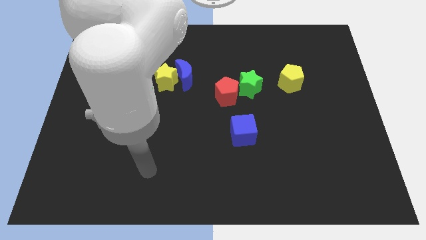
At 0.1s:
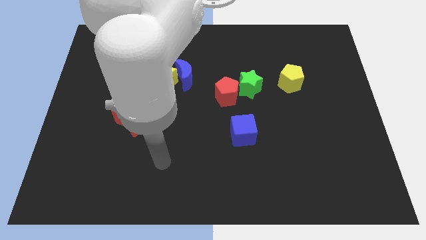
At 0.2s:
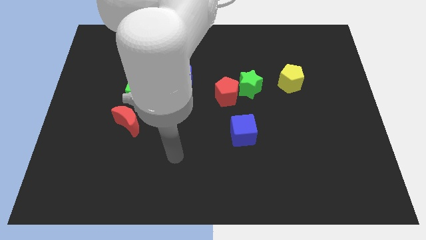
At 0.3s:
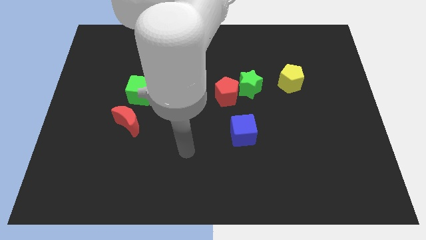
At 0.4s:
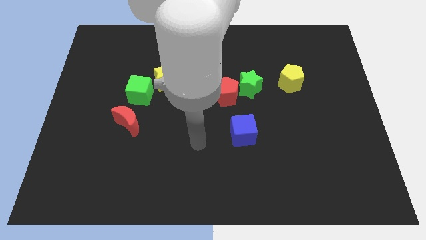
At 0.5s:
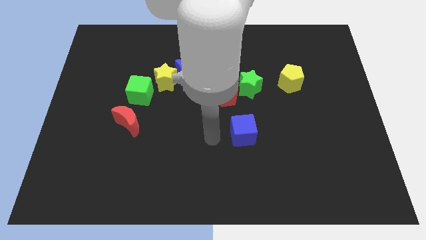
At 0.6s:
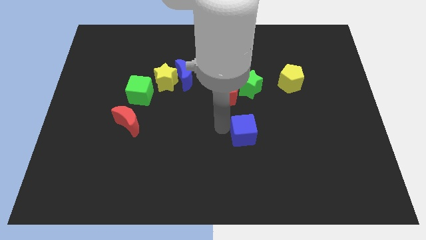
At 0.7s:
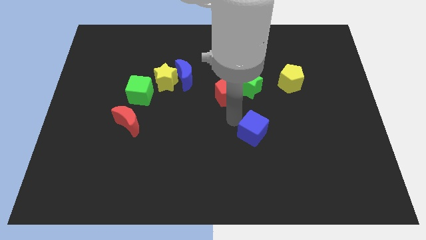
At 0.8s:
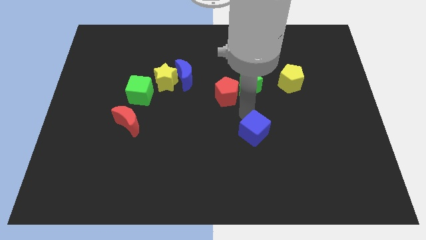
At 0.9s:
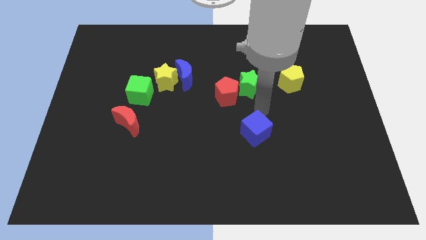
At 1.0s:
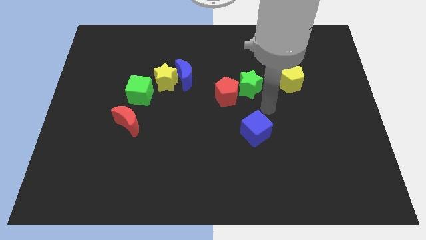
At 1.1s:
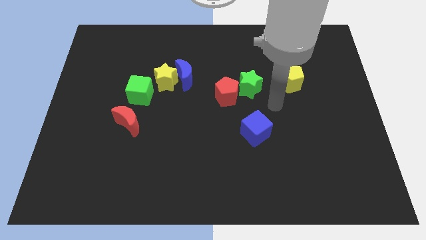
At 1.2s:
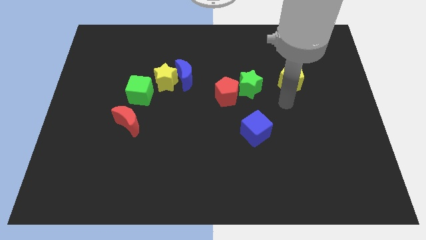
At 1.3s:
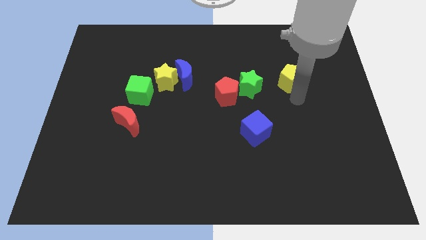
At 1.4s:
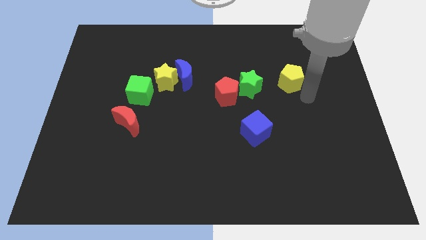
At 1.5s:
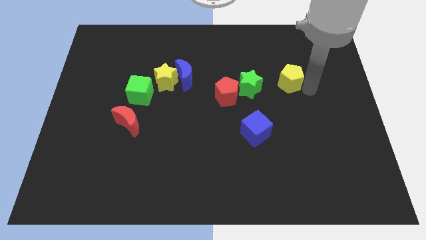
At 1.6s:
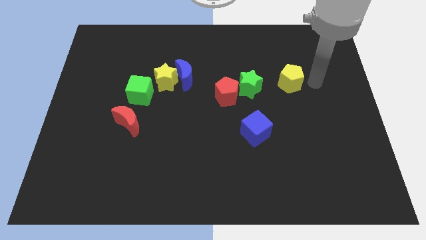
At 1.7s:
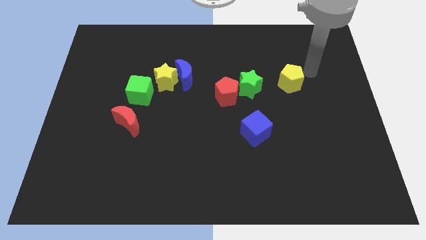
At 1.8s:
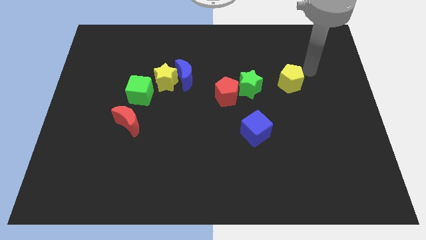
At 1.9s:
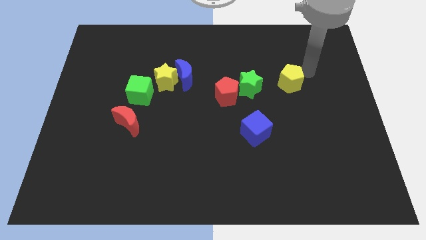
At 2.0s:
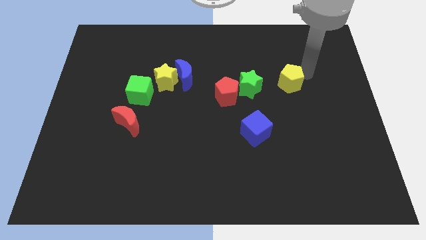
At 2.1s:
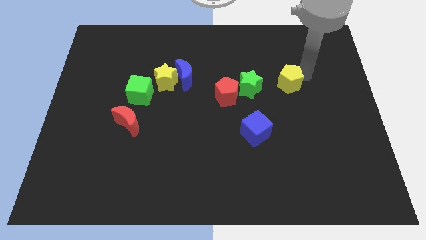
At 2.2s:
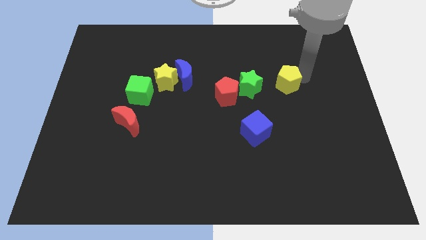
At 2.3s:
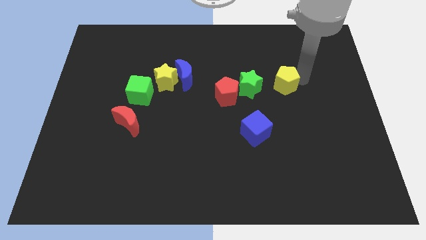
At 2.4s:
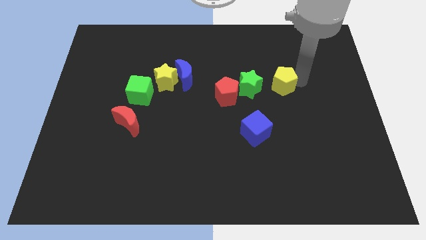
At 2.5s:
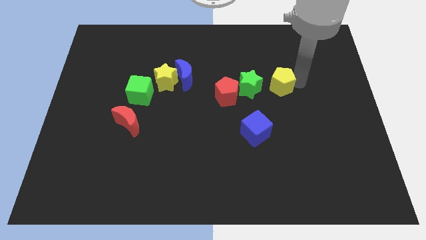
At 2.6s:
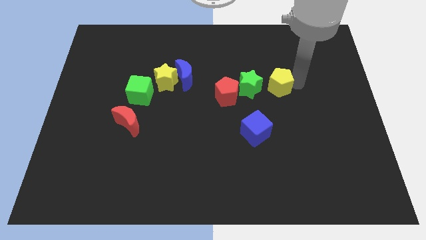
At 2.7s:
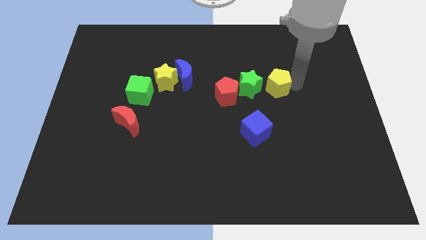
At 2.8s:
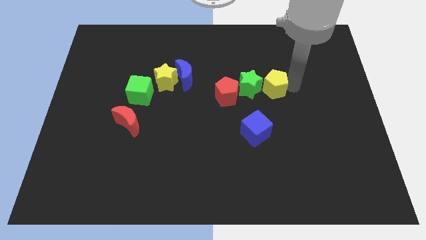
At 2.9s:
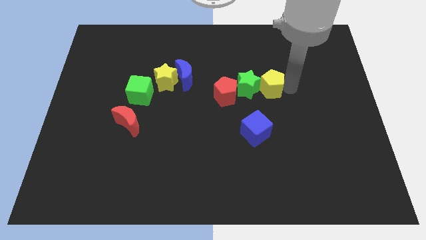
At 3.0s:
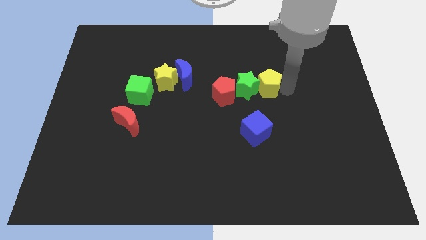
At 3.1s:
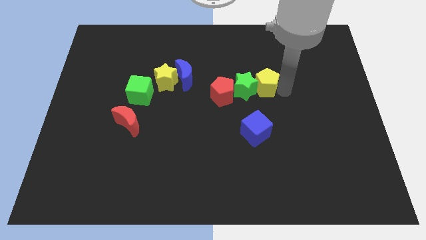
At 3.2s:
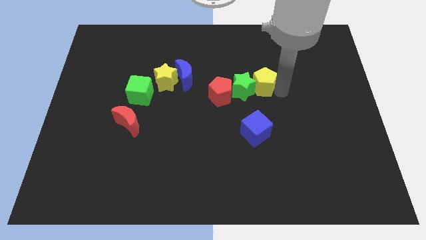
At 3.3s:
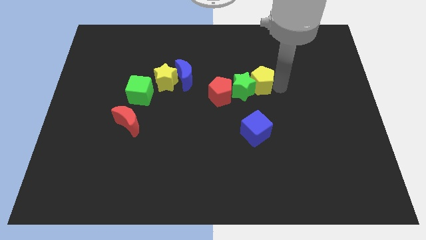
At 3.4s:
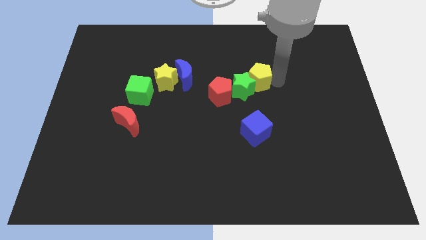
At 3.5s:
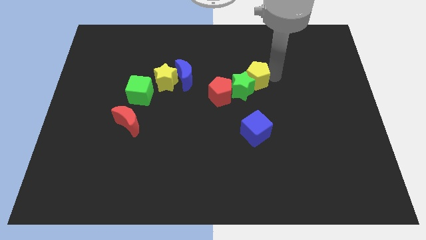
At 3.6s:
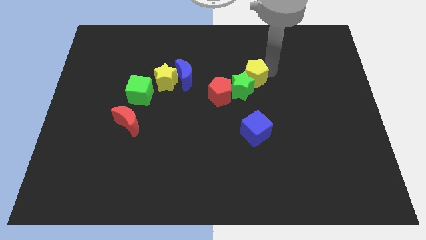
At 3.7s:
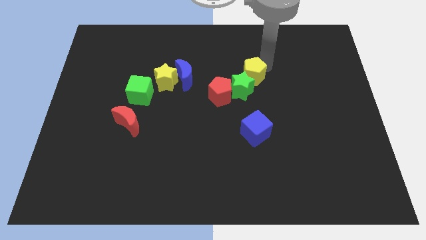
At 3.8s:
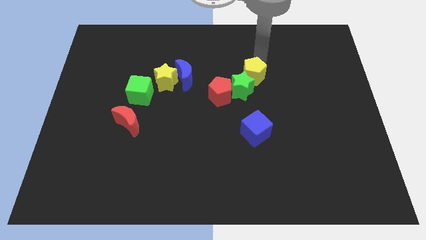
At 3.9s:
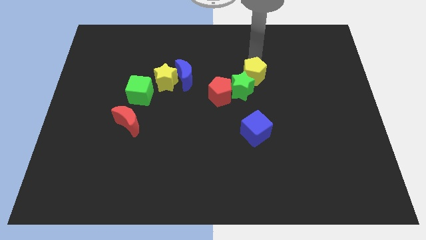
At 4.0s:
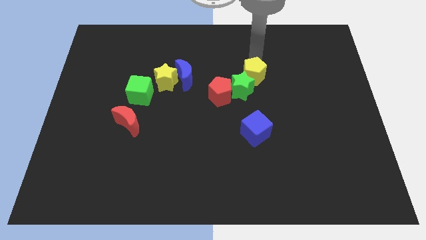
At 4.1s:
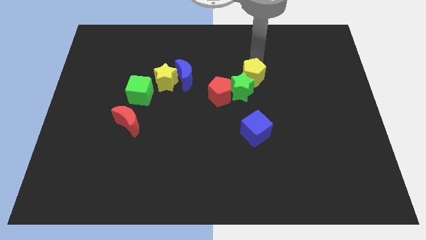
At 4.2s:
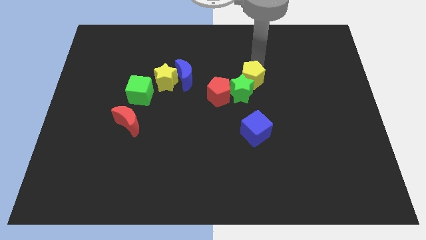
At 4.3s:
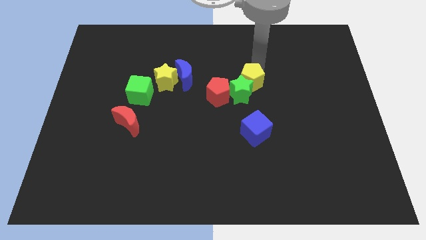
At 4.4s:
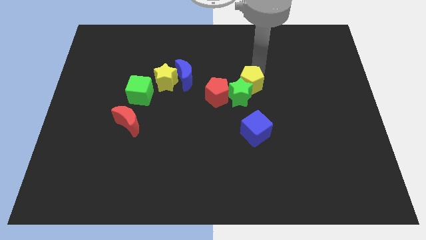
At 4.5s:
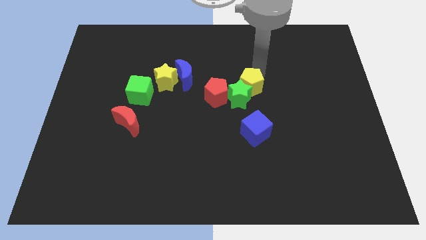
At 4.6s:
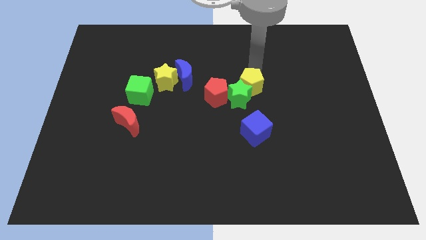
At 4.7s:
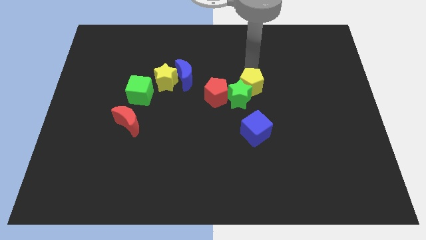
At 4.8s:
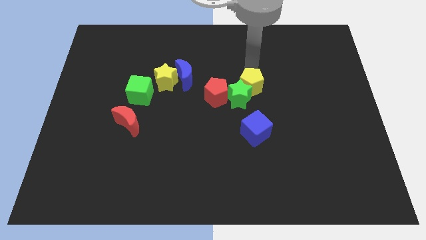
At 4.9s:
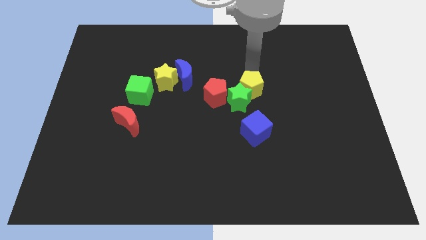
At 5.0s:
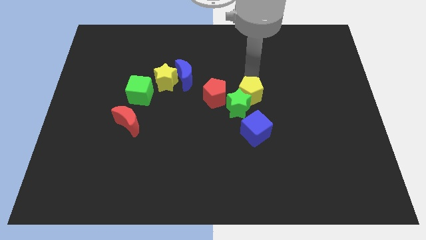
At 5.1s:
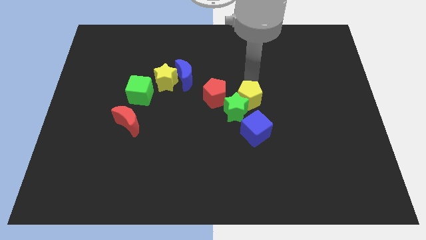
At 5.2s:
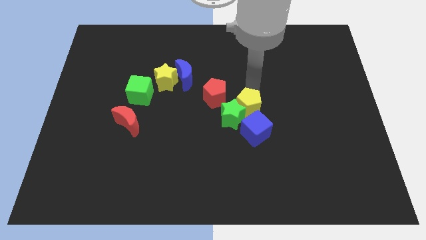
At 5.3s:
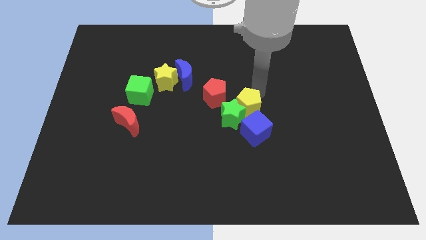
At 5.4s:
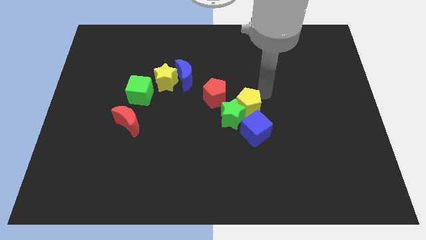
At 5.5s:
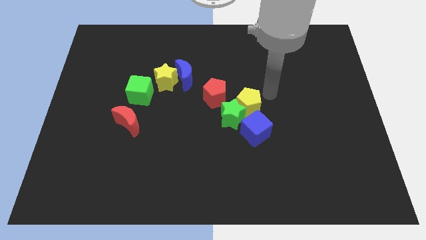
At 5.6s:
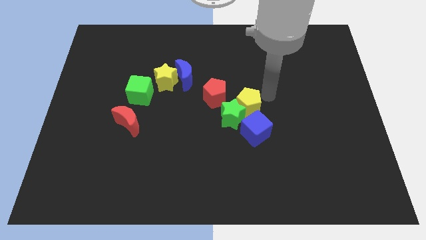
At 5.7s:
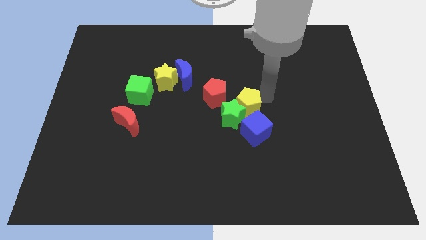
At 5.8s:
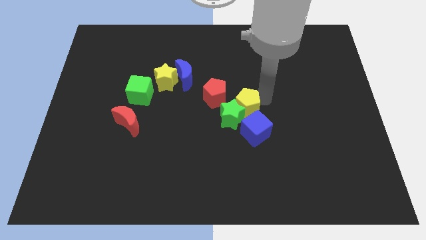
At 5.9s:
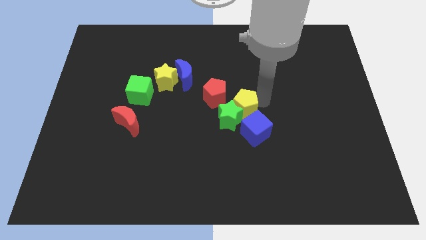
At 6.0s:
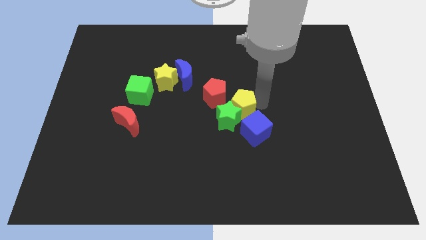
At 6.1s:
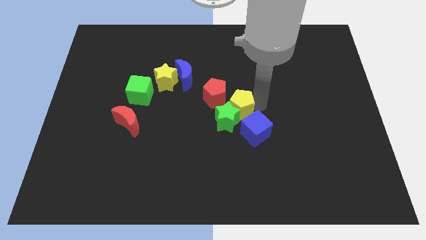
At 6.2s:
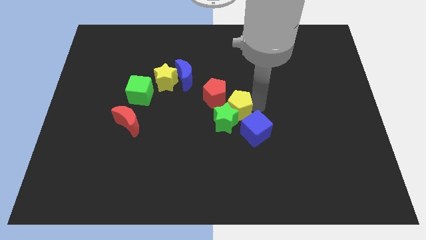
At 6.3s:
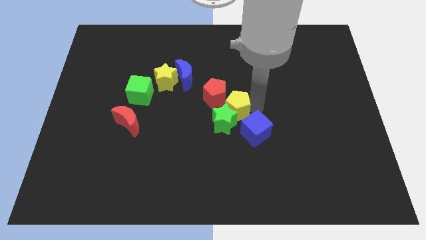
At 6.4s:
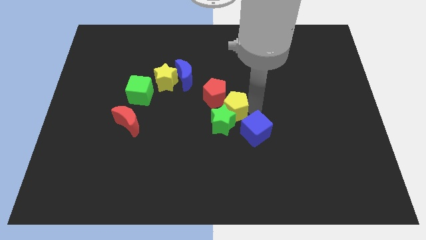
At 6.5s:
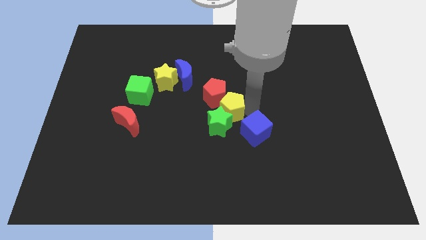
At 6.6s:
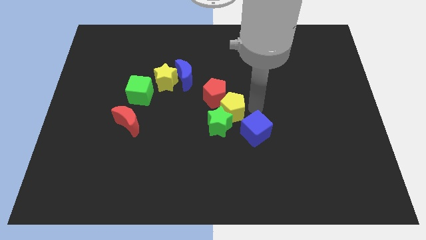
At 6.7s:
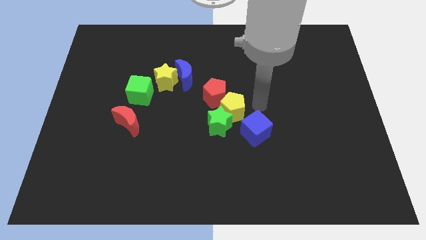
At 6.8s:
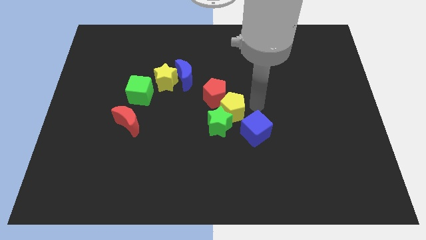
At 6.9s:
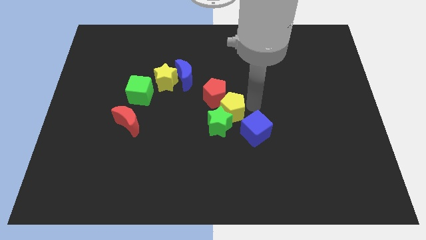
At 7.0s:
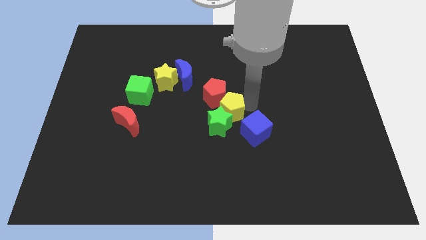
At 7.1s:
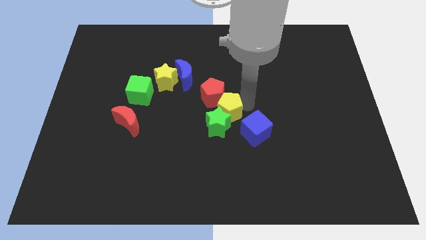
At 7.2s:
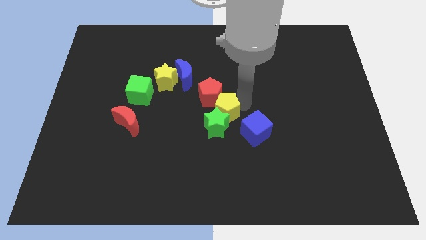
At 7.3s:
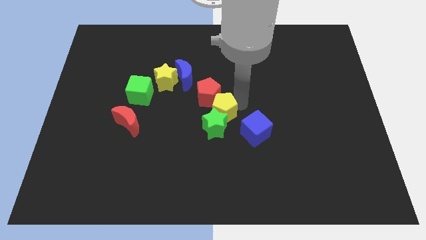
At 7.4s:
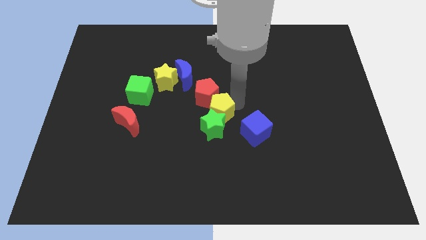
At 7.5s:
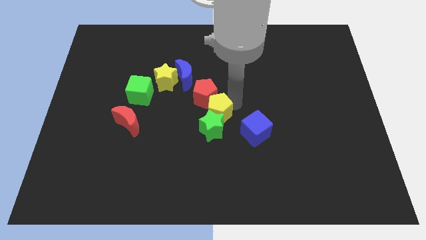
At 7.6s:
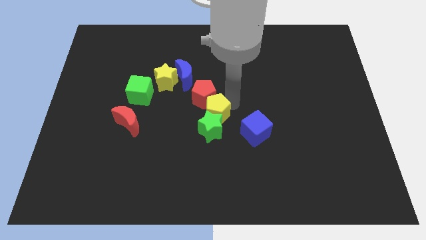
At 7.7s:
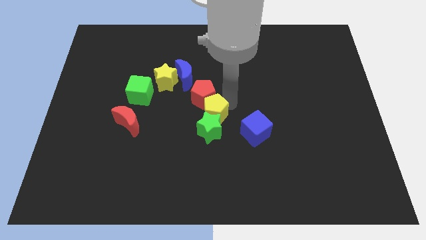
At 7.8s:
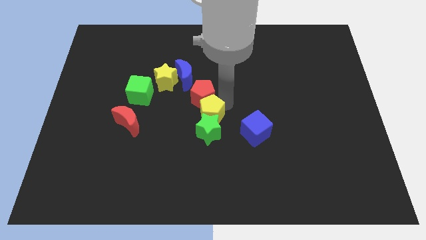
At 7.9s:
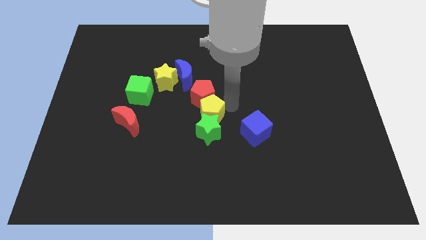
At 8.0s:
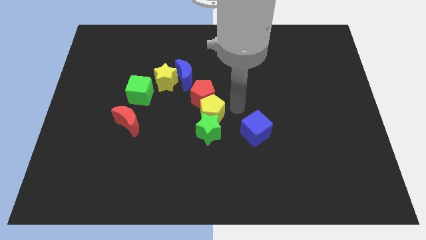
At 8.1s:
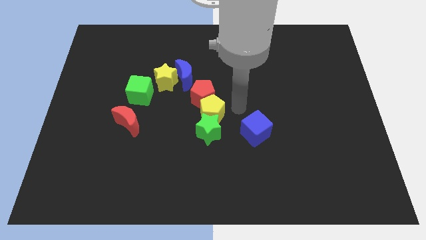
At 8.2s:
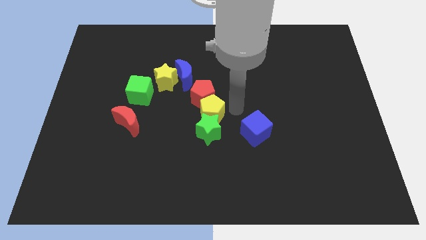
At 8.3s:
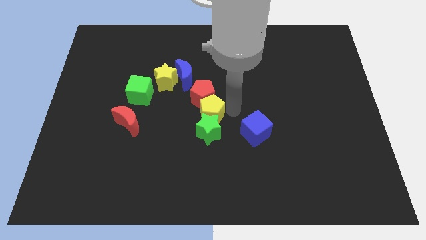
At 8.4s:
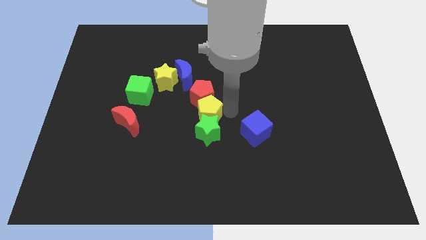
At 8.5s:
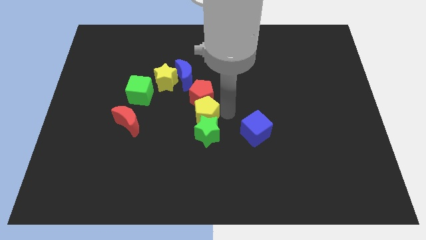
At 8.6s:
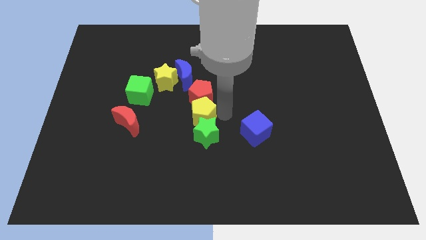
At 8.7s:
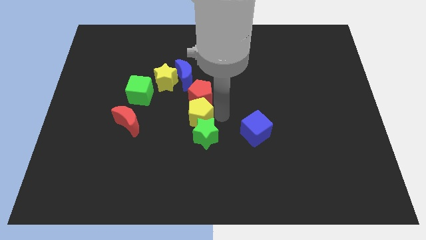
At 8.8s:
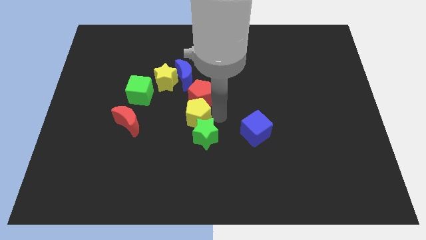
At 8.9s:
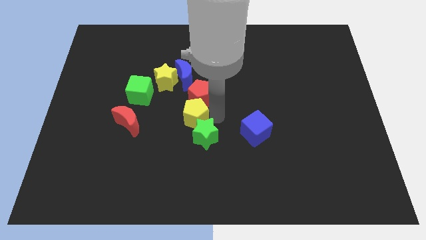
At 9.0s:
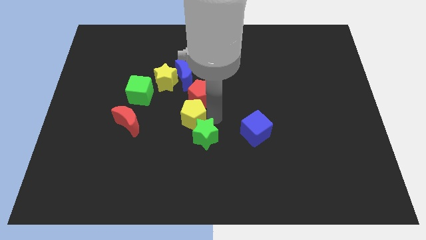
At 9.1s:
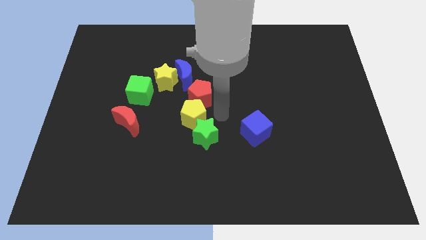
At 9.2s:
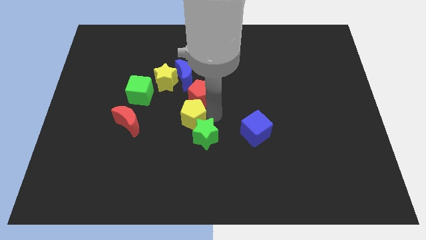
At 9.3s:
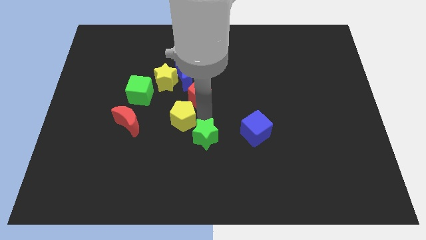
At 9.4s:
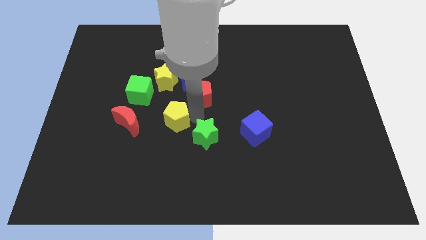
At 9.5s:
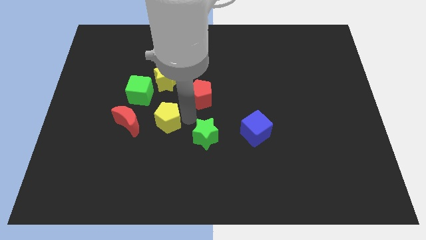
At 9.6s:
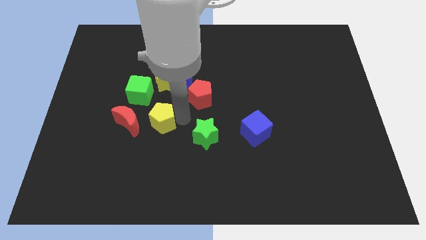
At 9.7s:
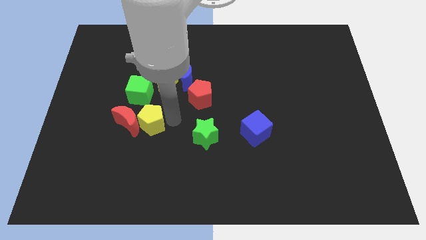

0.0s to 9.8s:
slide the yellow pentagon close to the red moon
